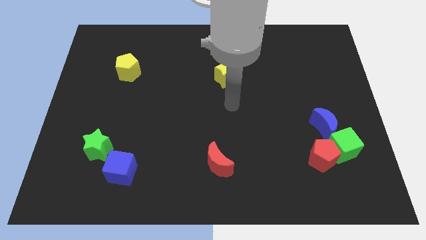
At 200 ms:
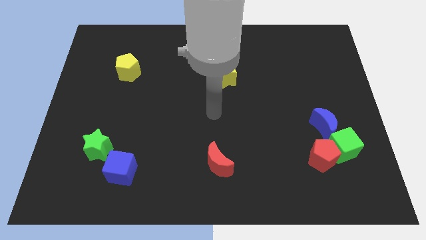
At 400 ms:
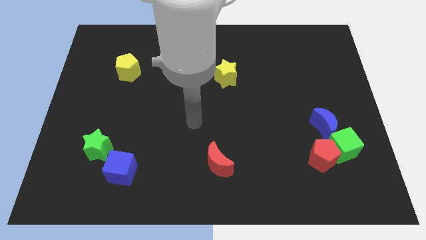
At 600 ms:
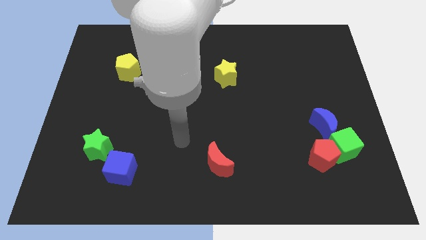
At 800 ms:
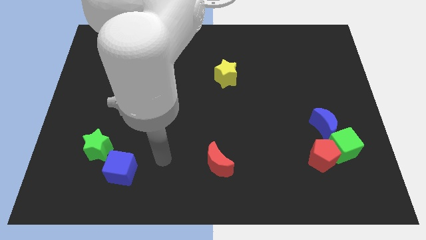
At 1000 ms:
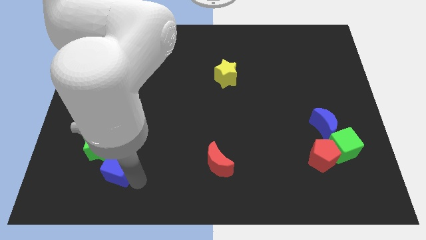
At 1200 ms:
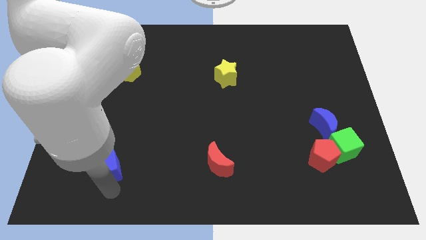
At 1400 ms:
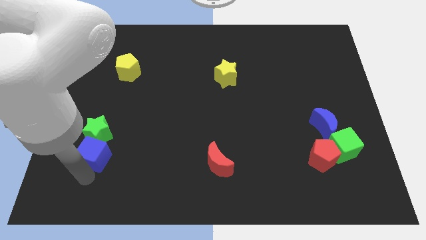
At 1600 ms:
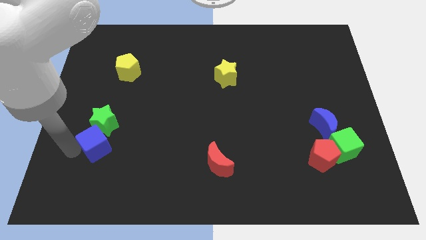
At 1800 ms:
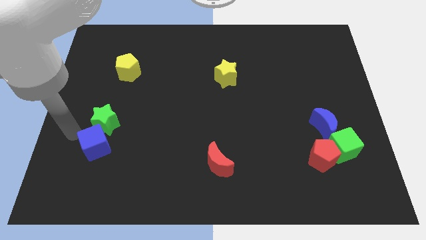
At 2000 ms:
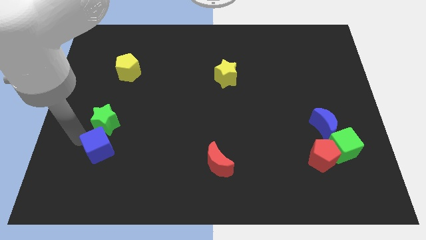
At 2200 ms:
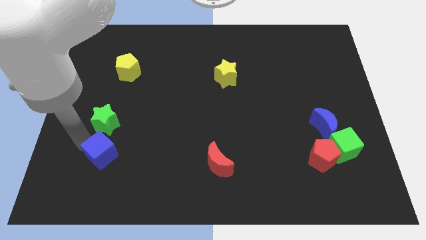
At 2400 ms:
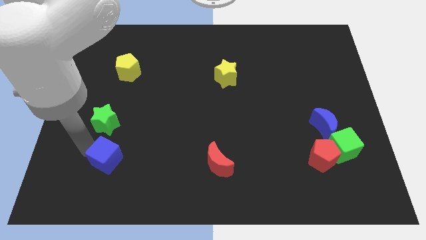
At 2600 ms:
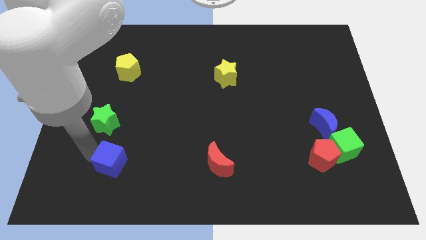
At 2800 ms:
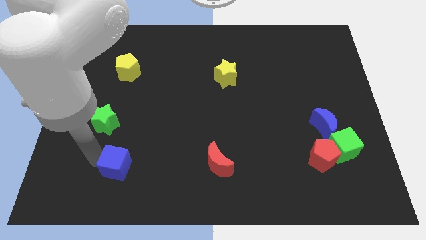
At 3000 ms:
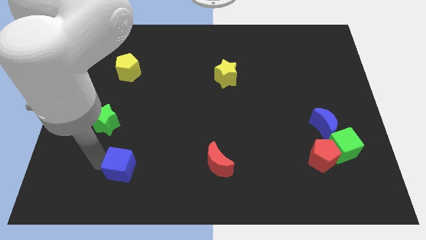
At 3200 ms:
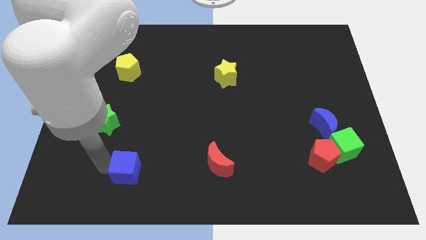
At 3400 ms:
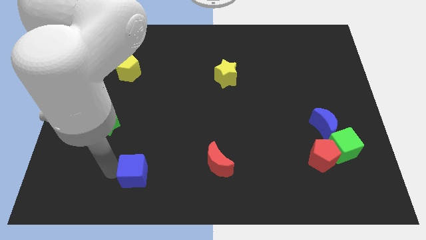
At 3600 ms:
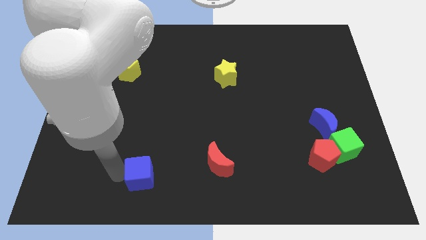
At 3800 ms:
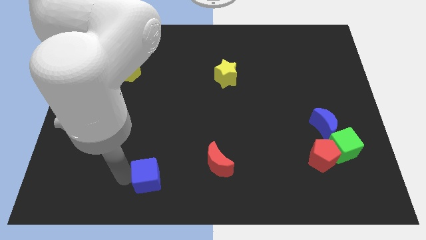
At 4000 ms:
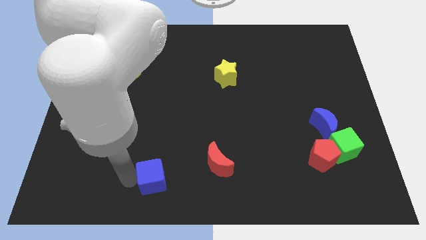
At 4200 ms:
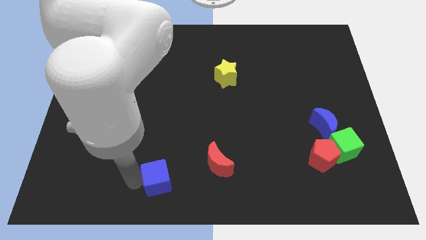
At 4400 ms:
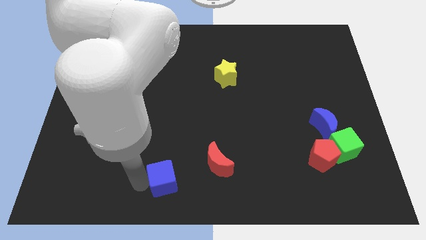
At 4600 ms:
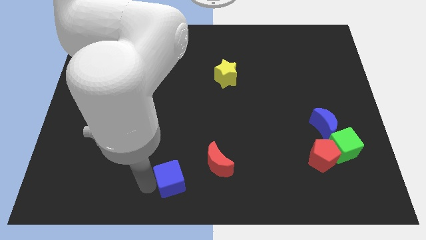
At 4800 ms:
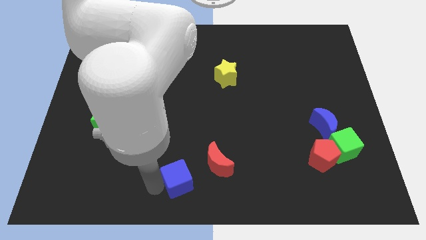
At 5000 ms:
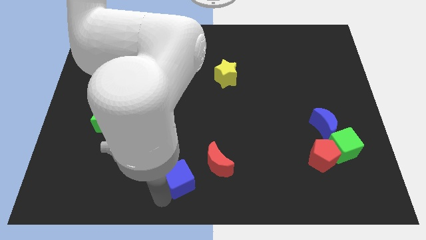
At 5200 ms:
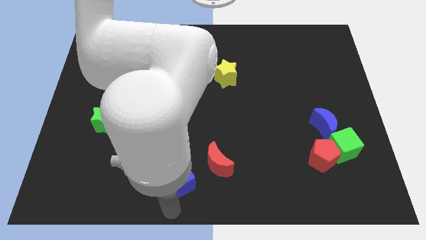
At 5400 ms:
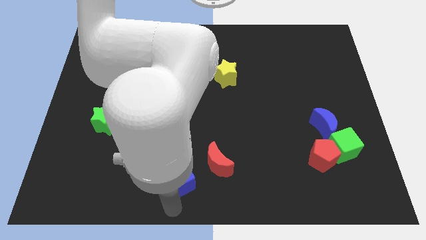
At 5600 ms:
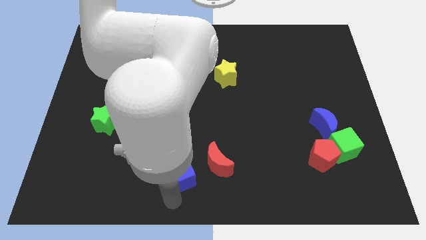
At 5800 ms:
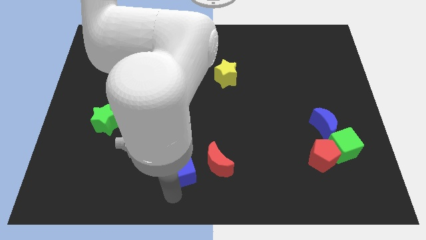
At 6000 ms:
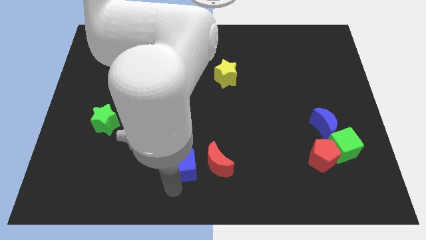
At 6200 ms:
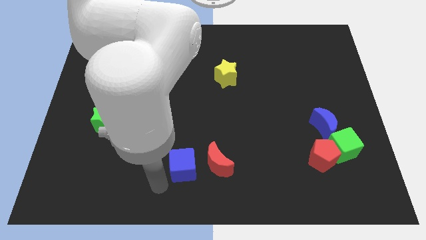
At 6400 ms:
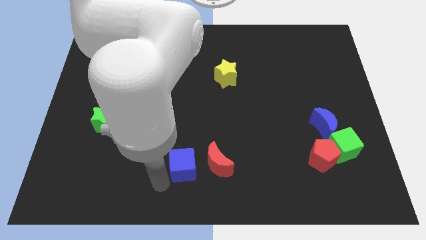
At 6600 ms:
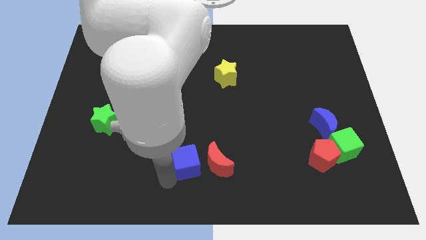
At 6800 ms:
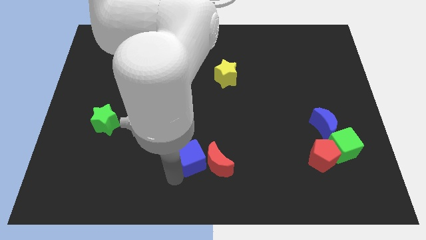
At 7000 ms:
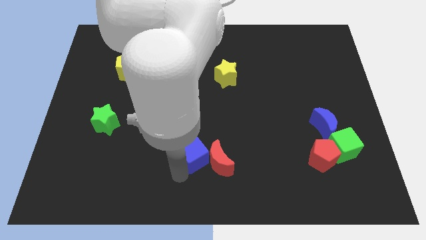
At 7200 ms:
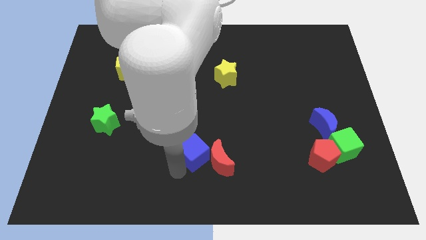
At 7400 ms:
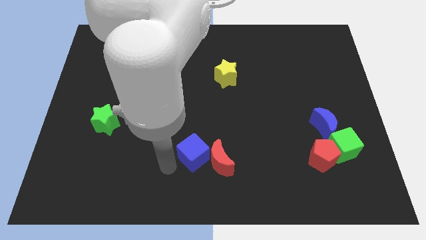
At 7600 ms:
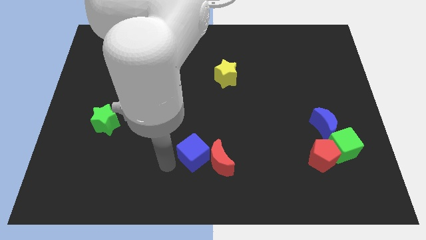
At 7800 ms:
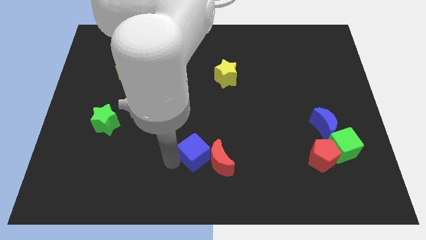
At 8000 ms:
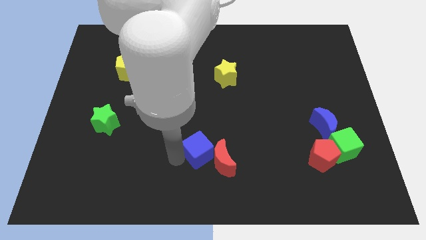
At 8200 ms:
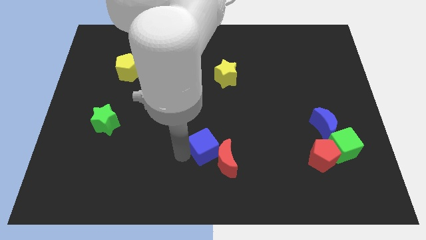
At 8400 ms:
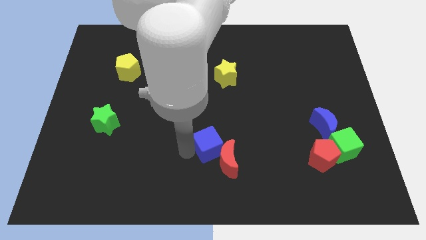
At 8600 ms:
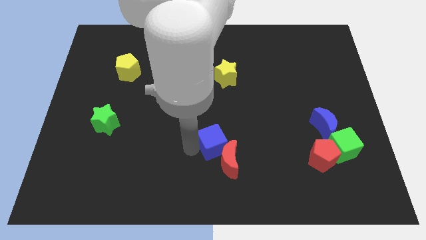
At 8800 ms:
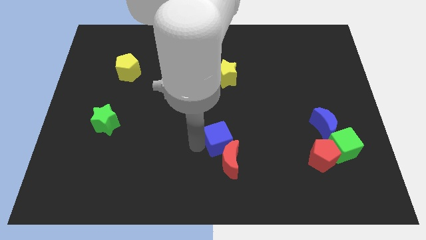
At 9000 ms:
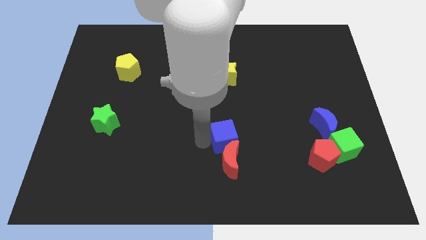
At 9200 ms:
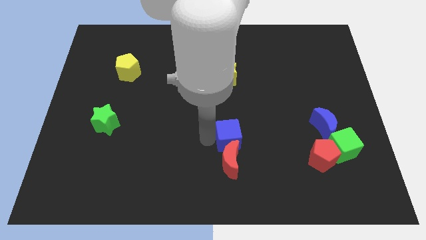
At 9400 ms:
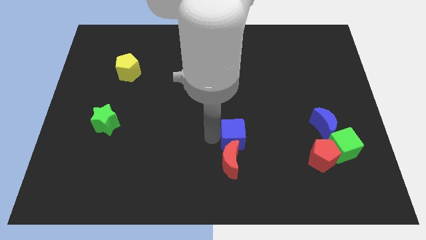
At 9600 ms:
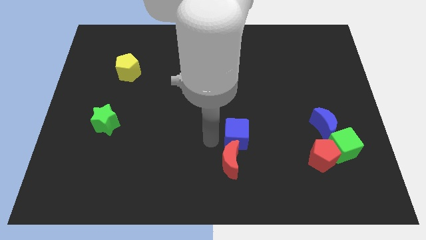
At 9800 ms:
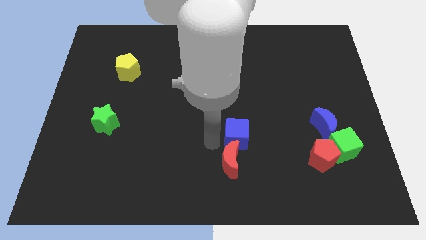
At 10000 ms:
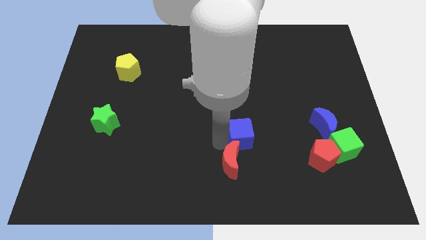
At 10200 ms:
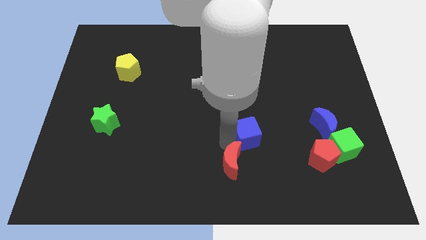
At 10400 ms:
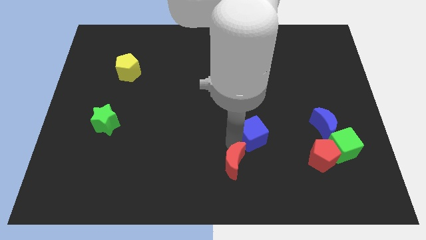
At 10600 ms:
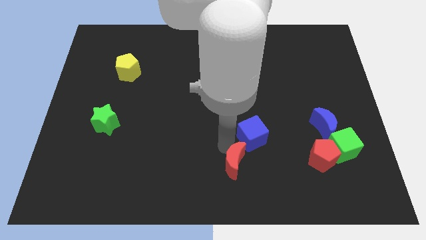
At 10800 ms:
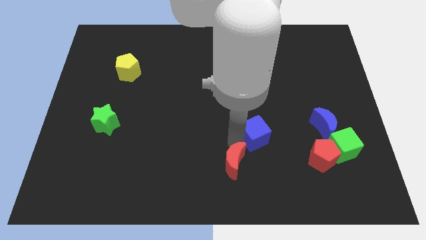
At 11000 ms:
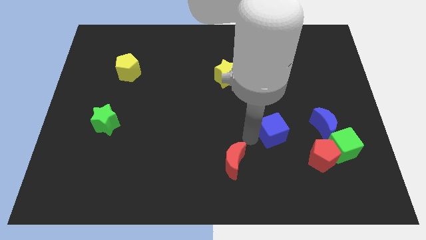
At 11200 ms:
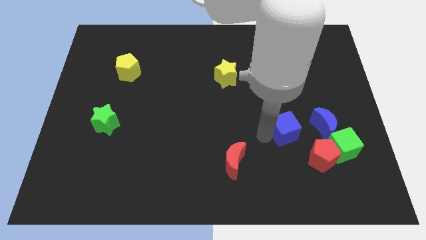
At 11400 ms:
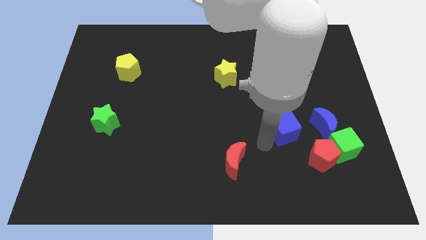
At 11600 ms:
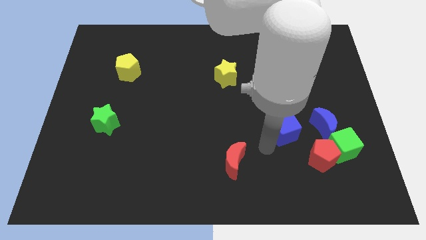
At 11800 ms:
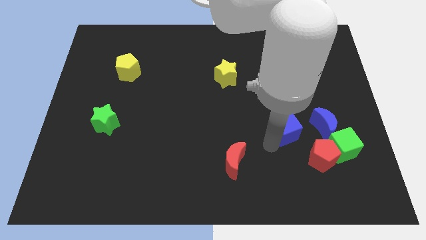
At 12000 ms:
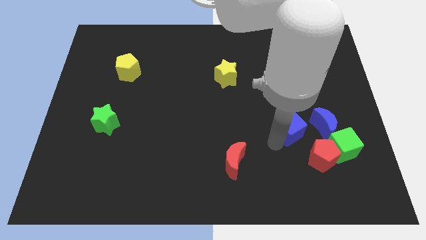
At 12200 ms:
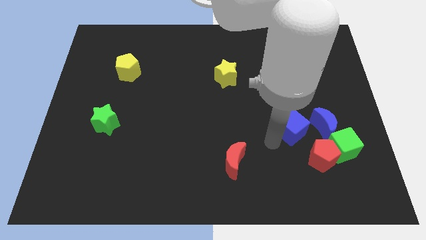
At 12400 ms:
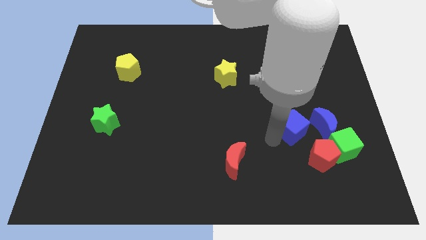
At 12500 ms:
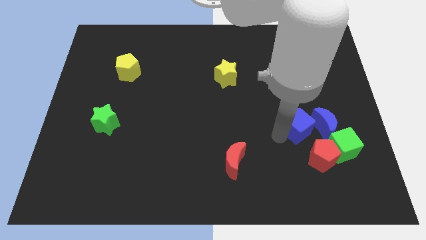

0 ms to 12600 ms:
move the blue cube to the top of the red pentagon

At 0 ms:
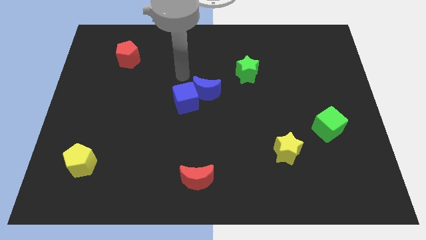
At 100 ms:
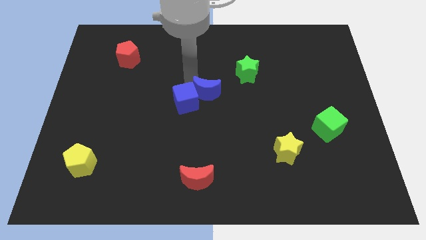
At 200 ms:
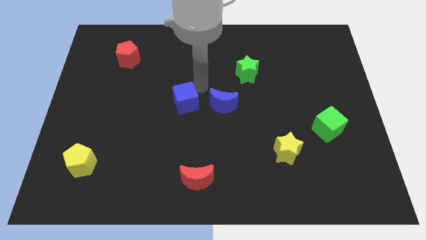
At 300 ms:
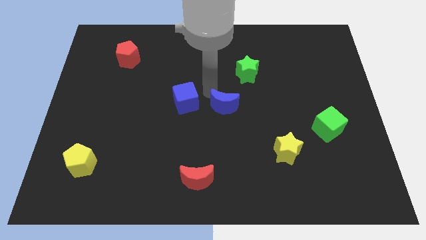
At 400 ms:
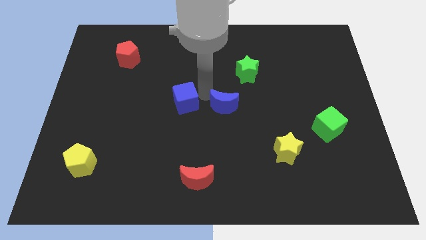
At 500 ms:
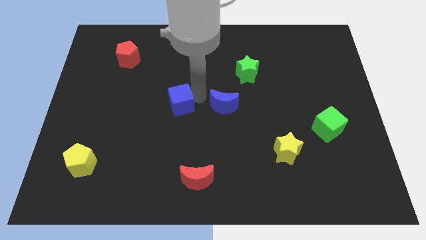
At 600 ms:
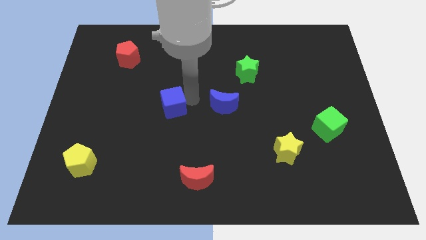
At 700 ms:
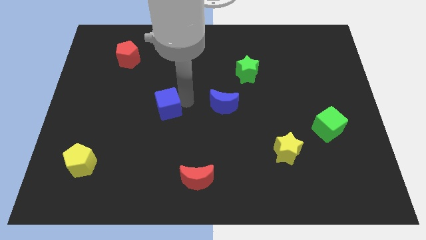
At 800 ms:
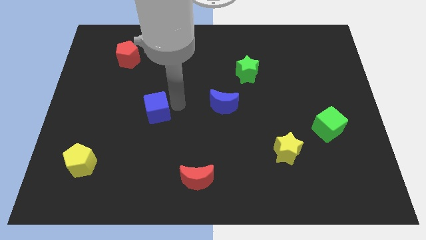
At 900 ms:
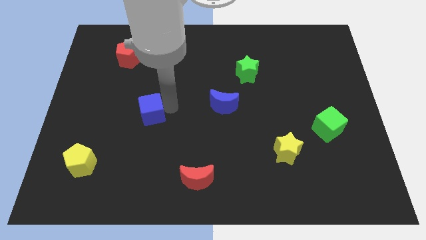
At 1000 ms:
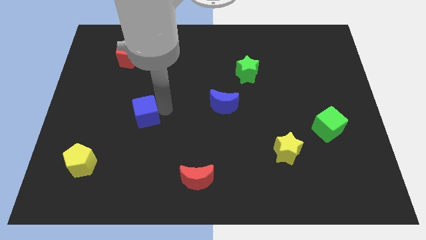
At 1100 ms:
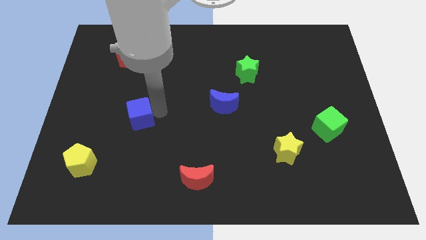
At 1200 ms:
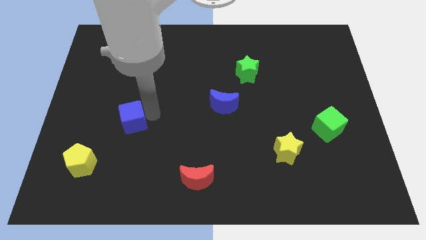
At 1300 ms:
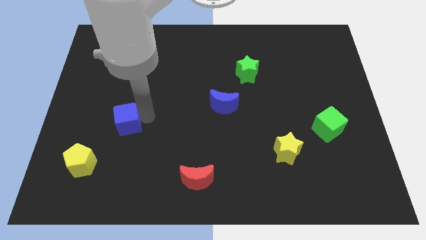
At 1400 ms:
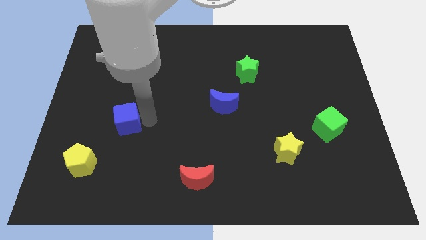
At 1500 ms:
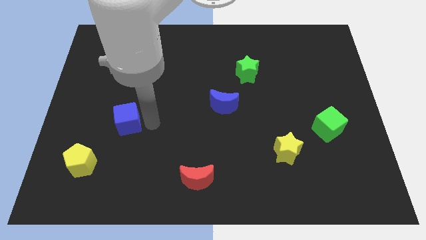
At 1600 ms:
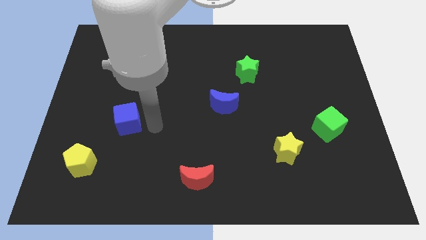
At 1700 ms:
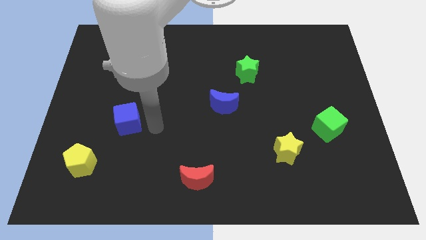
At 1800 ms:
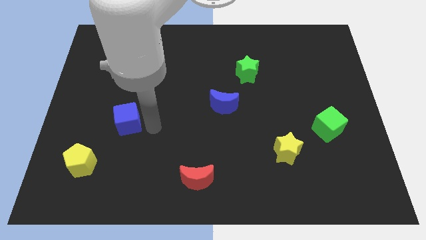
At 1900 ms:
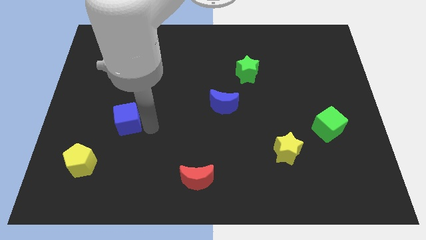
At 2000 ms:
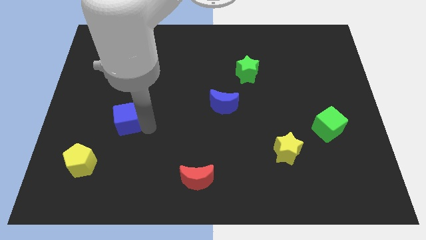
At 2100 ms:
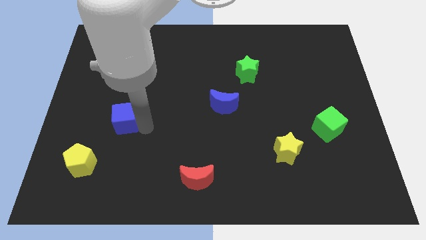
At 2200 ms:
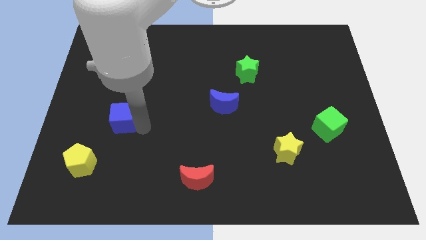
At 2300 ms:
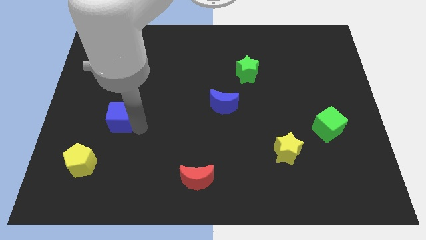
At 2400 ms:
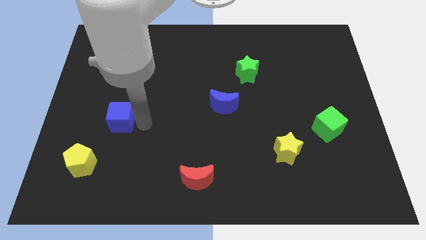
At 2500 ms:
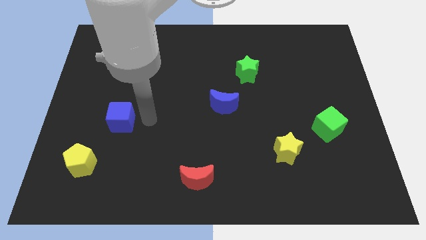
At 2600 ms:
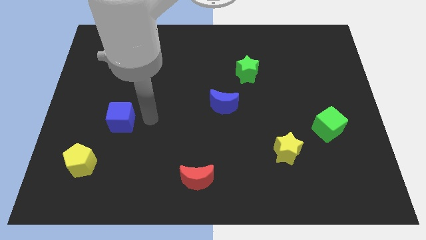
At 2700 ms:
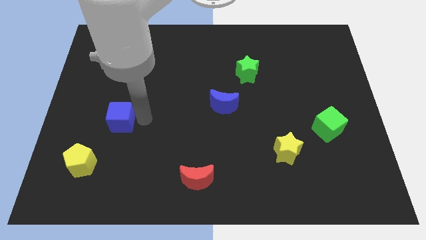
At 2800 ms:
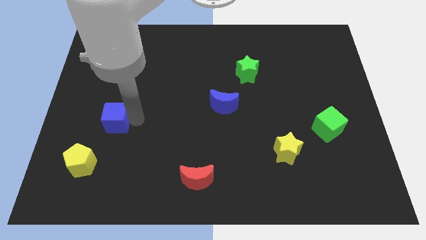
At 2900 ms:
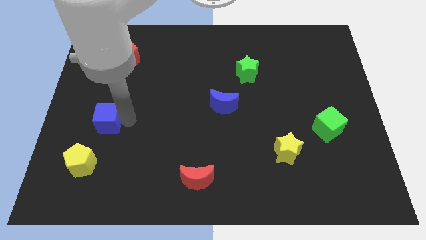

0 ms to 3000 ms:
move the blue cube above the yellow pentagon
